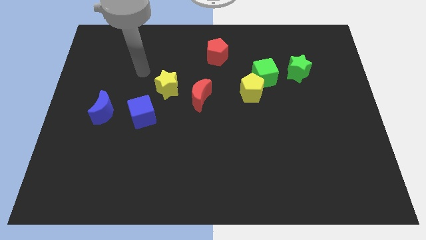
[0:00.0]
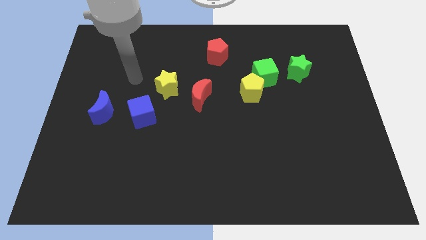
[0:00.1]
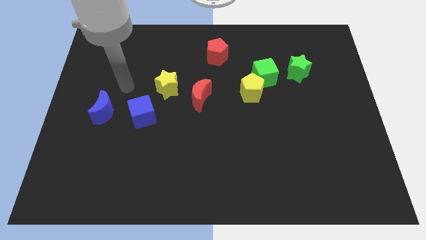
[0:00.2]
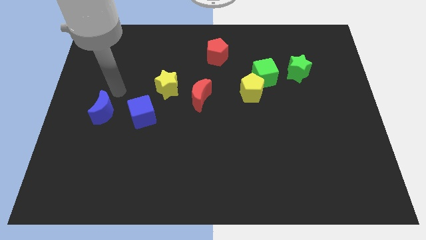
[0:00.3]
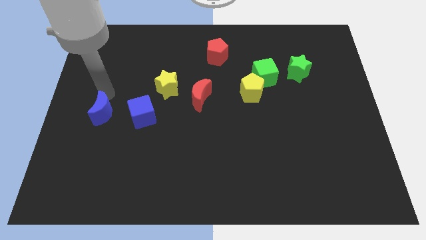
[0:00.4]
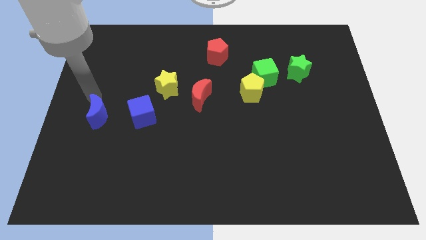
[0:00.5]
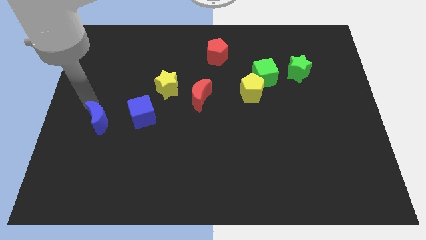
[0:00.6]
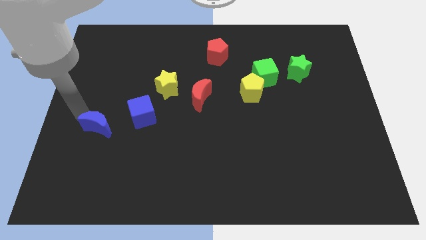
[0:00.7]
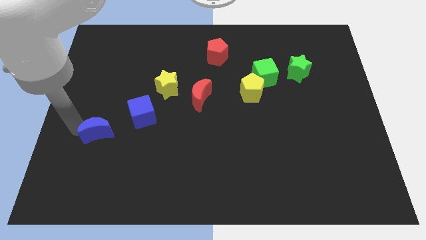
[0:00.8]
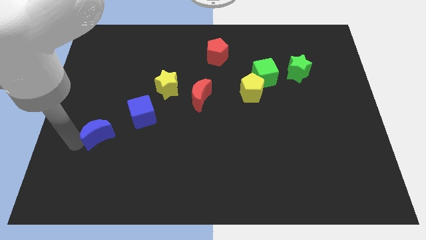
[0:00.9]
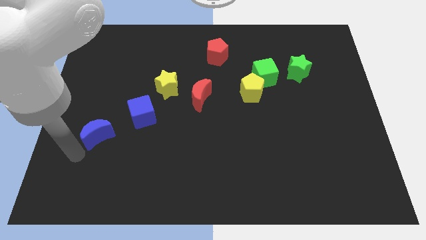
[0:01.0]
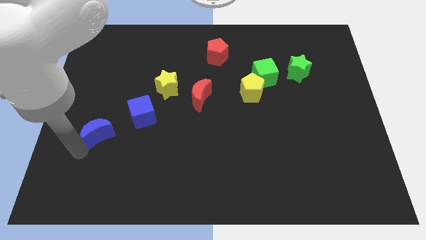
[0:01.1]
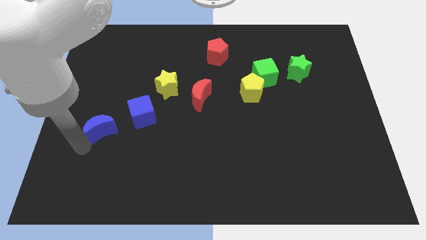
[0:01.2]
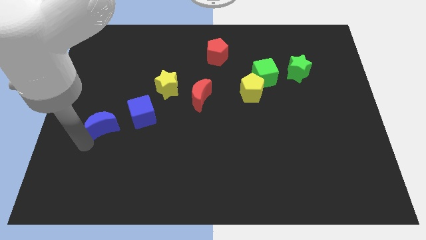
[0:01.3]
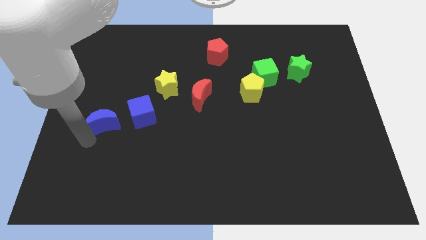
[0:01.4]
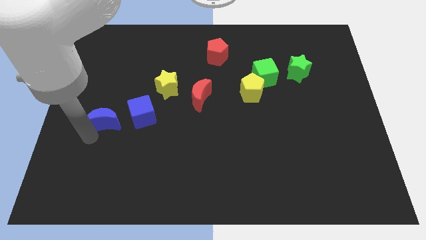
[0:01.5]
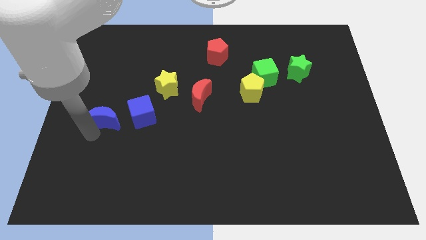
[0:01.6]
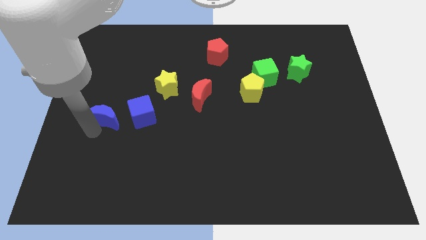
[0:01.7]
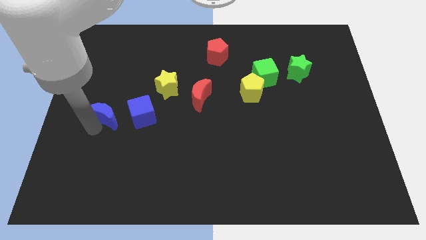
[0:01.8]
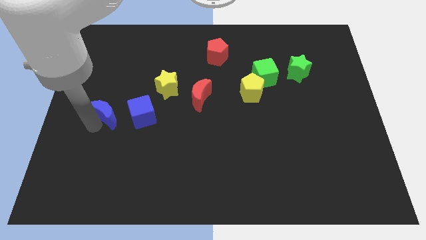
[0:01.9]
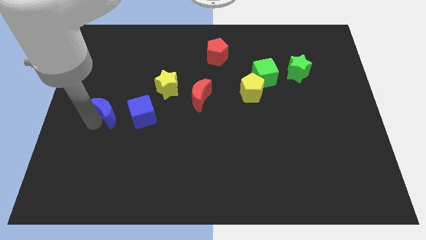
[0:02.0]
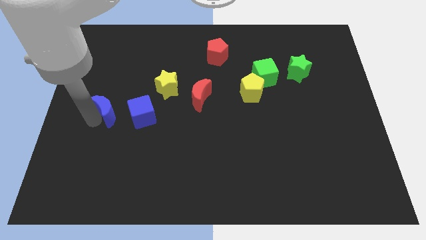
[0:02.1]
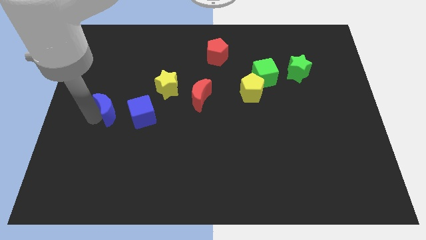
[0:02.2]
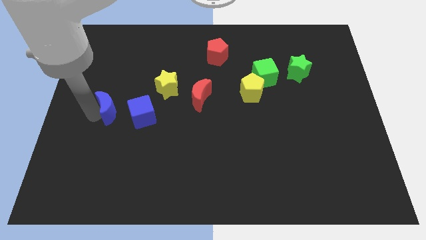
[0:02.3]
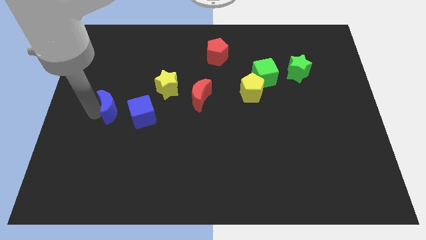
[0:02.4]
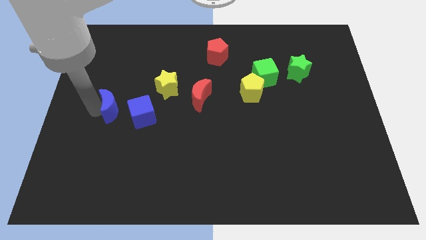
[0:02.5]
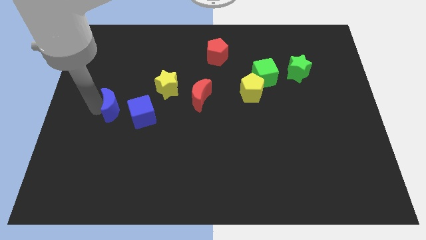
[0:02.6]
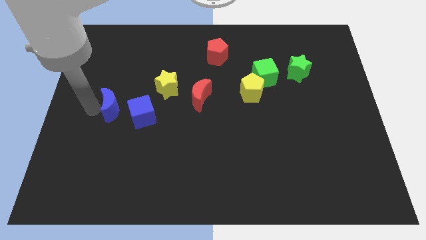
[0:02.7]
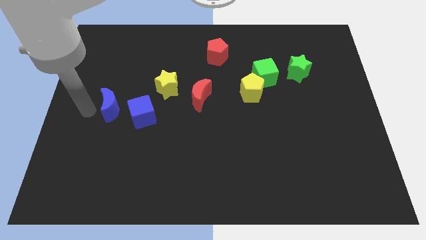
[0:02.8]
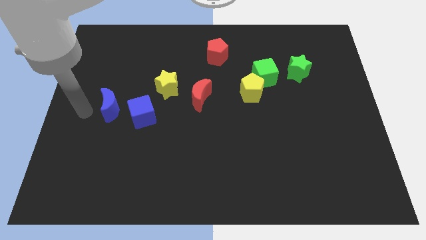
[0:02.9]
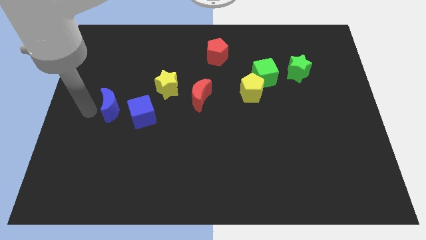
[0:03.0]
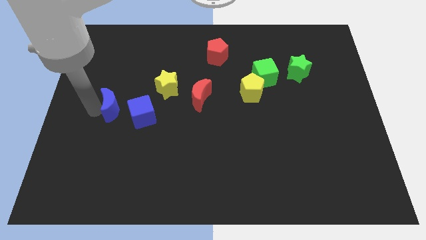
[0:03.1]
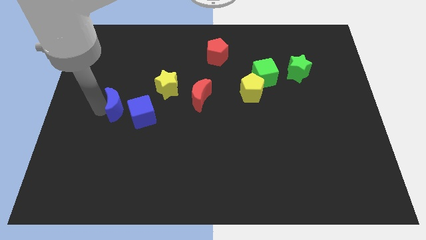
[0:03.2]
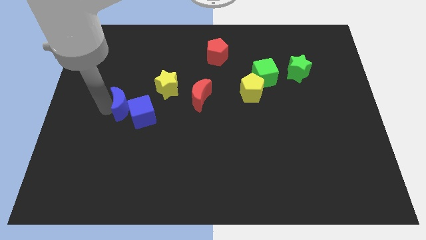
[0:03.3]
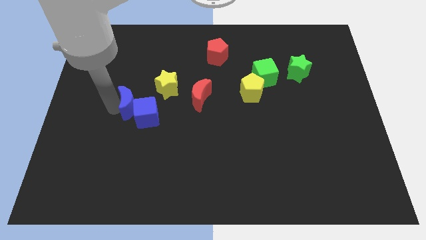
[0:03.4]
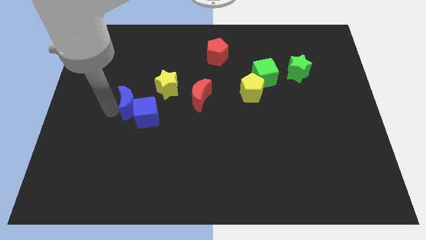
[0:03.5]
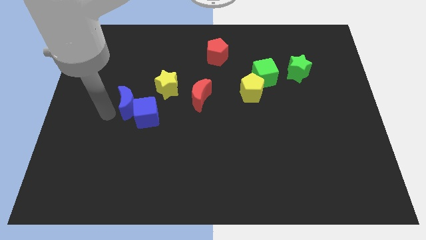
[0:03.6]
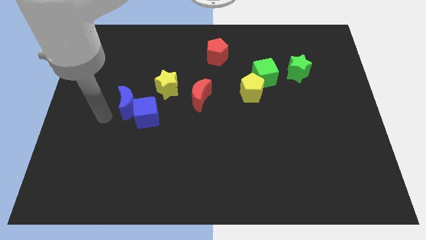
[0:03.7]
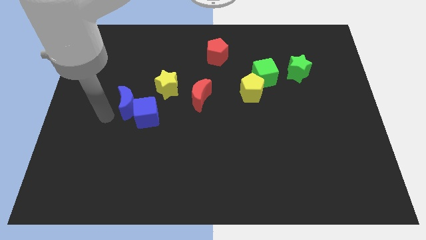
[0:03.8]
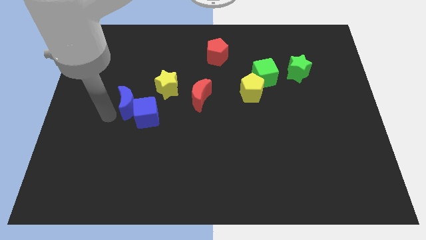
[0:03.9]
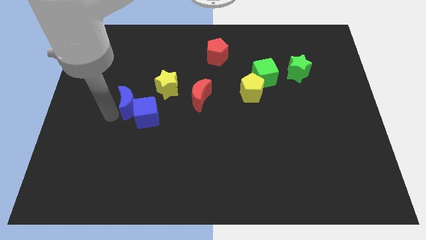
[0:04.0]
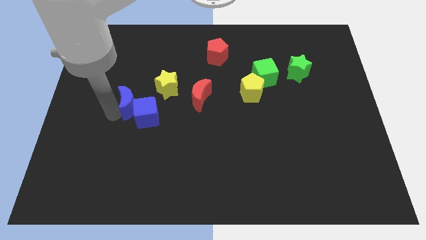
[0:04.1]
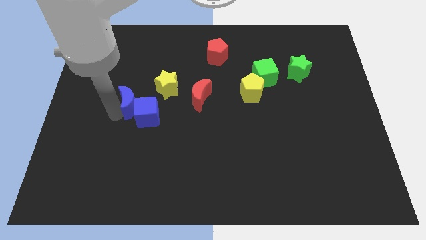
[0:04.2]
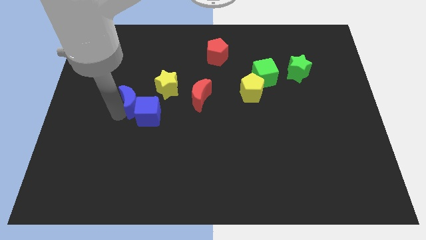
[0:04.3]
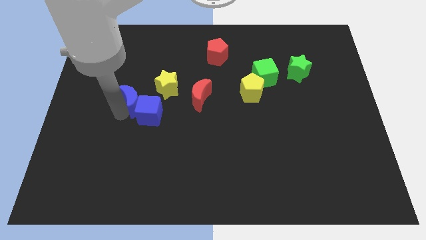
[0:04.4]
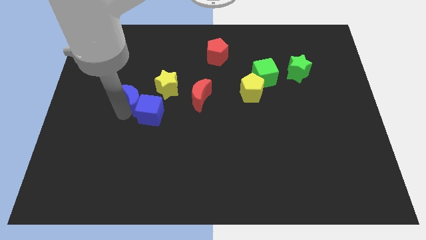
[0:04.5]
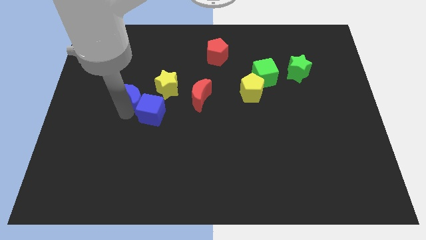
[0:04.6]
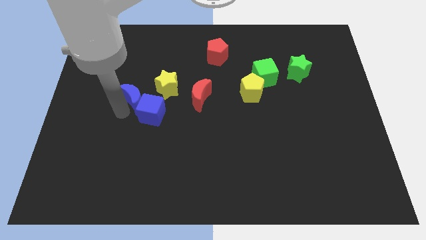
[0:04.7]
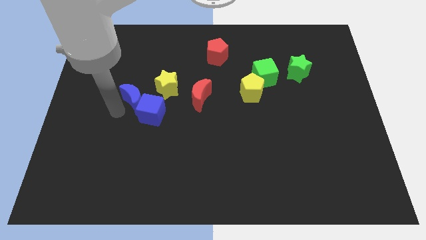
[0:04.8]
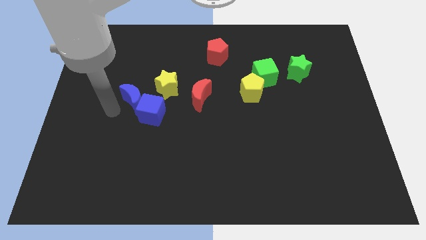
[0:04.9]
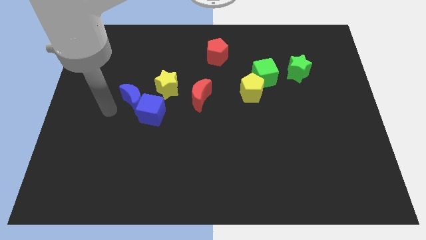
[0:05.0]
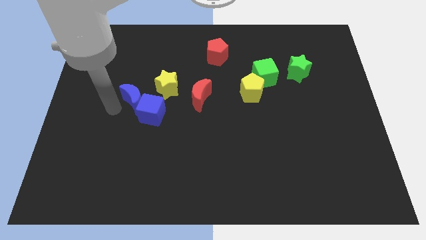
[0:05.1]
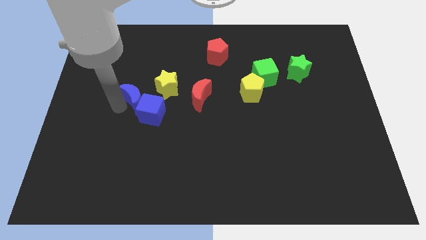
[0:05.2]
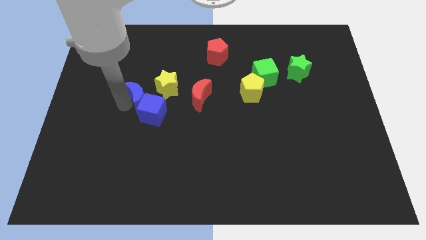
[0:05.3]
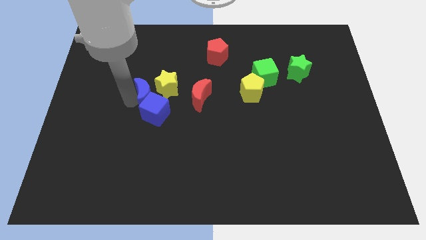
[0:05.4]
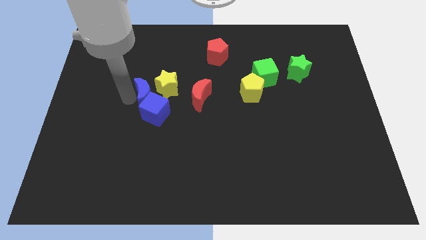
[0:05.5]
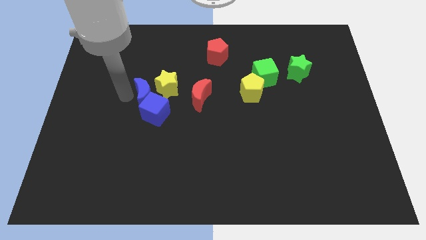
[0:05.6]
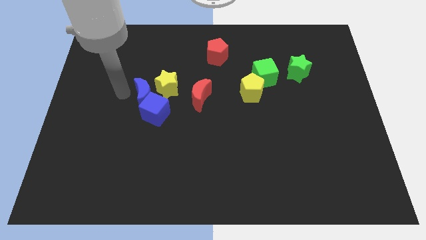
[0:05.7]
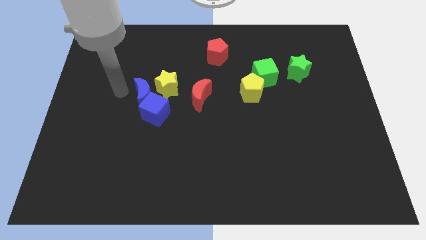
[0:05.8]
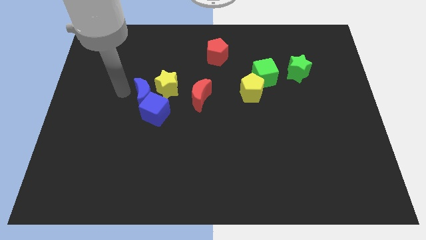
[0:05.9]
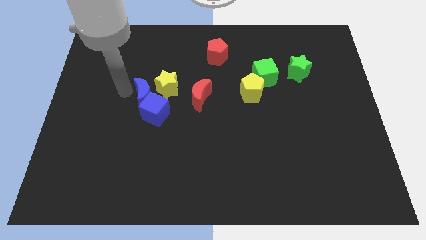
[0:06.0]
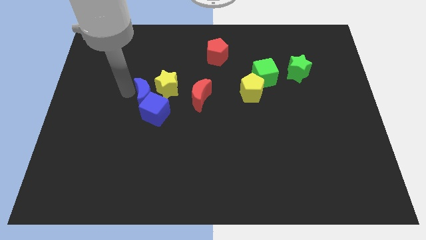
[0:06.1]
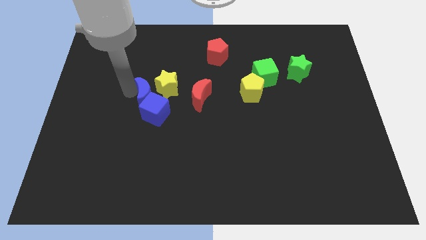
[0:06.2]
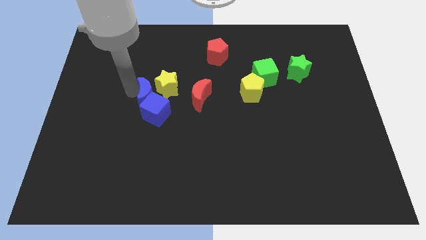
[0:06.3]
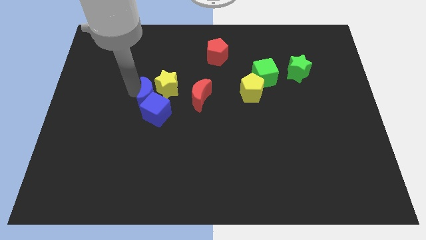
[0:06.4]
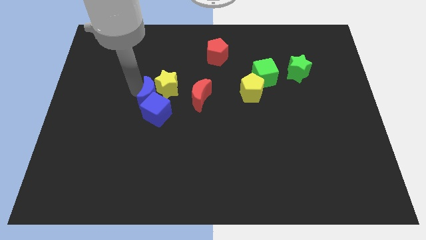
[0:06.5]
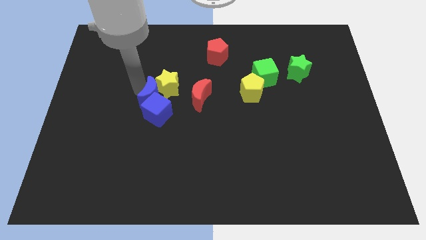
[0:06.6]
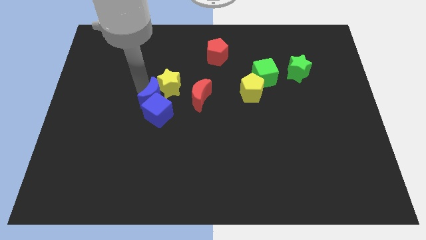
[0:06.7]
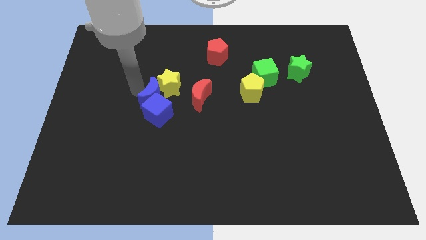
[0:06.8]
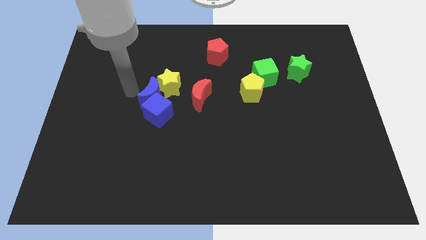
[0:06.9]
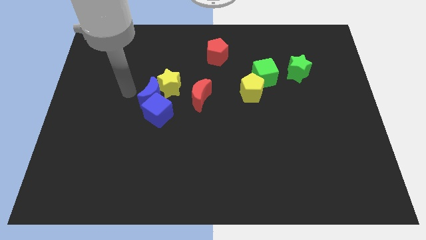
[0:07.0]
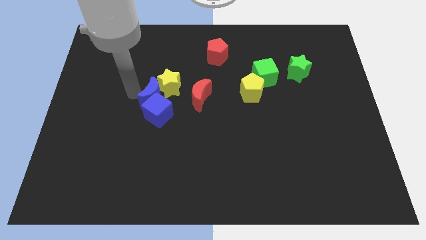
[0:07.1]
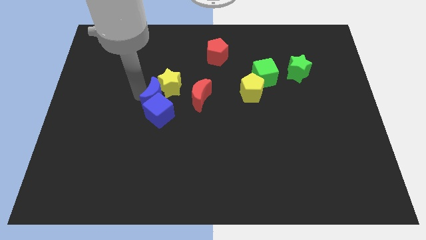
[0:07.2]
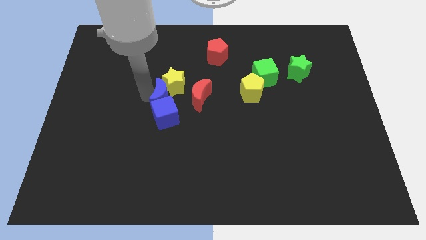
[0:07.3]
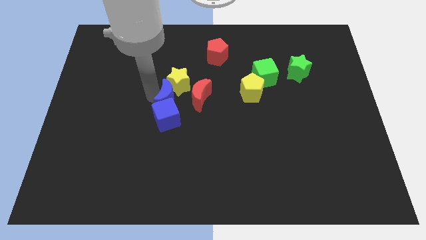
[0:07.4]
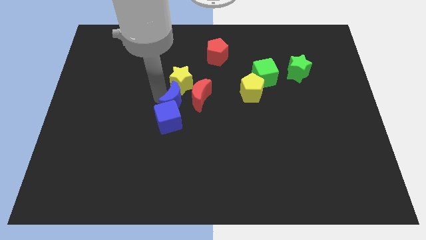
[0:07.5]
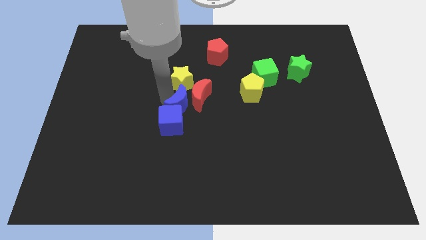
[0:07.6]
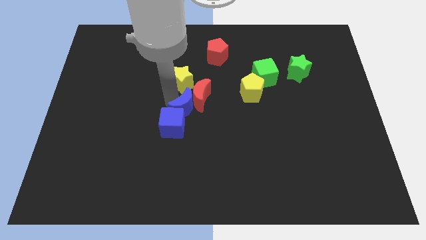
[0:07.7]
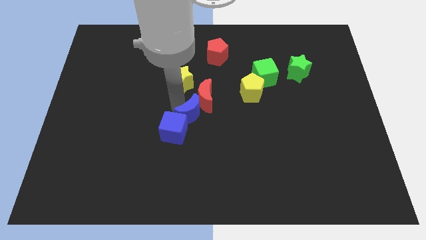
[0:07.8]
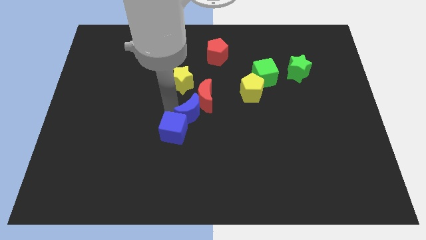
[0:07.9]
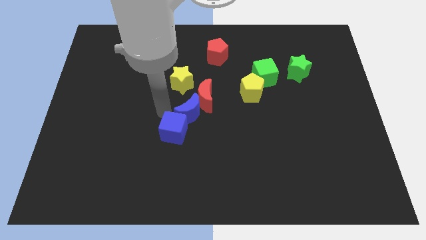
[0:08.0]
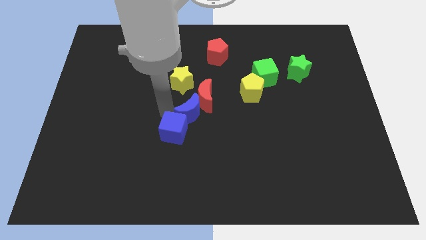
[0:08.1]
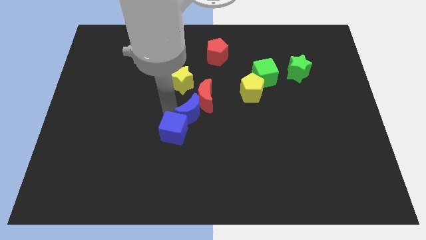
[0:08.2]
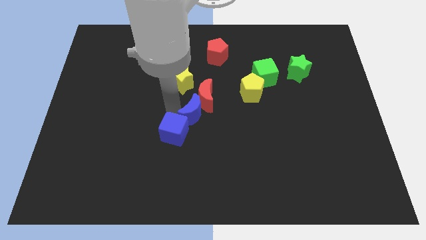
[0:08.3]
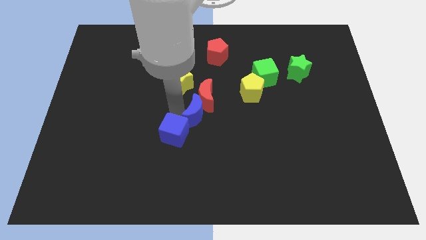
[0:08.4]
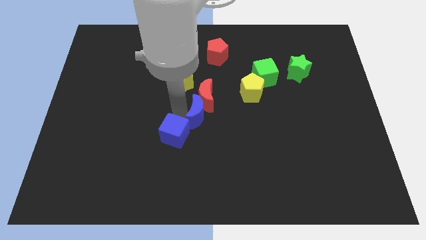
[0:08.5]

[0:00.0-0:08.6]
slide the blue moon diagonally down and to the right of the red moon
